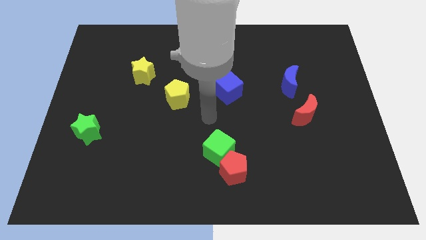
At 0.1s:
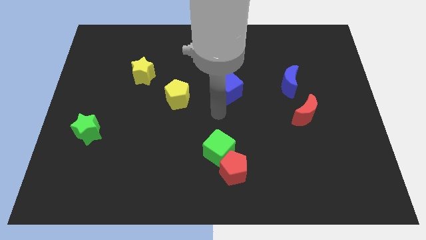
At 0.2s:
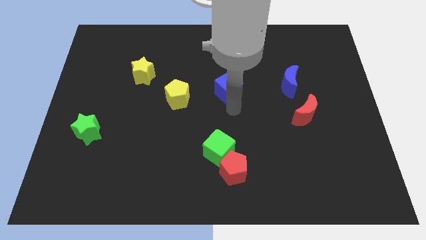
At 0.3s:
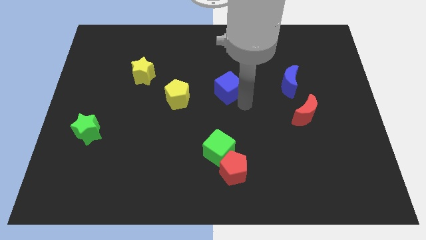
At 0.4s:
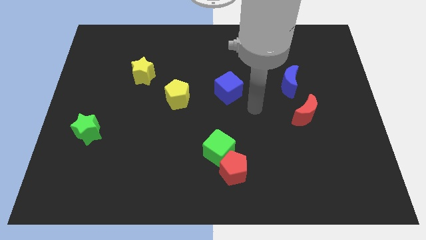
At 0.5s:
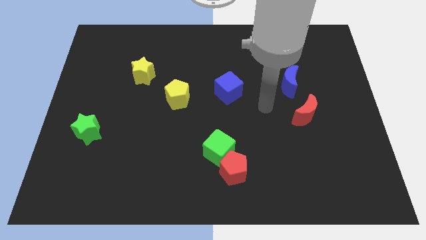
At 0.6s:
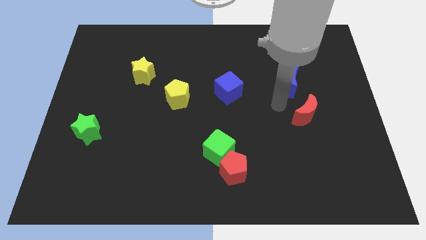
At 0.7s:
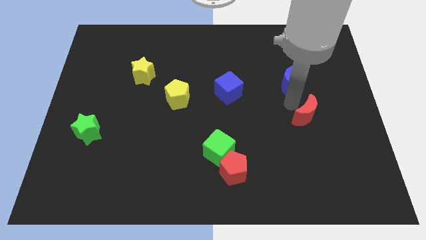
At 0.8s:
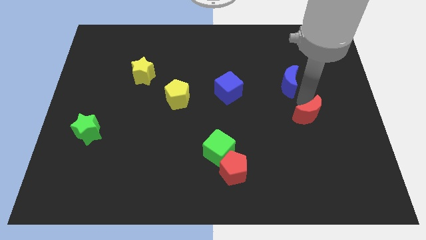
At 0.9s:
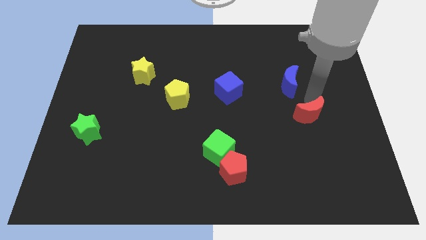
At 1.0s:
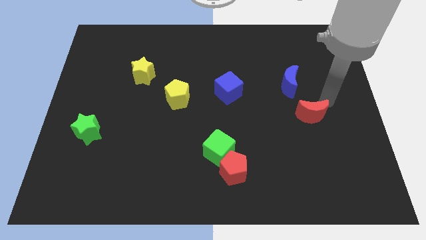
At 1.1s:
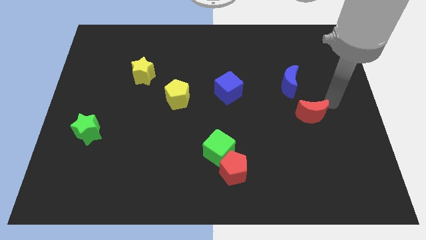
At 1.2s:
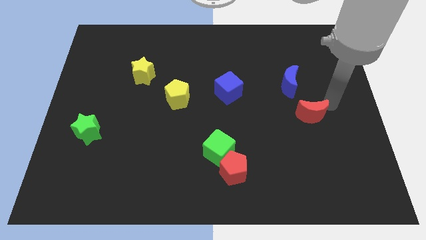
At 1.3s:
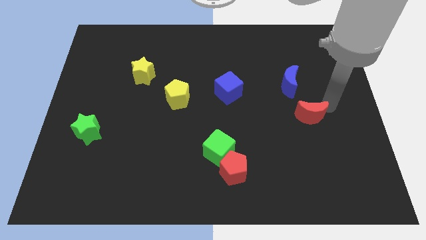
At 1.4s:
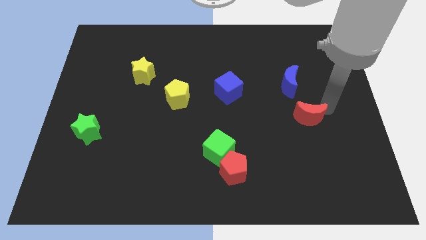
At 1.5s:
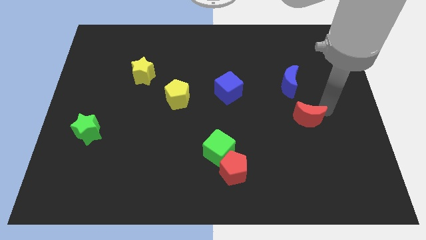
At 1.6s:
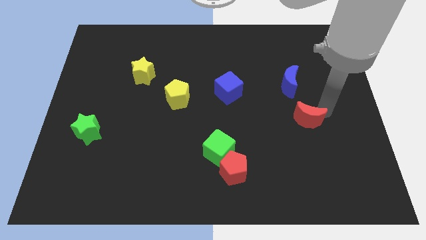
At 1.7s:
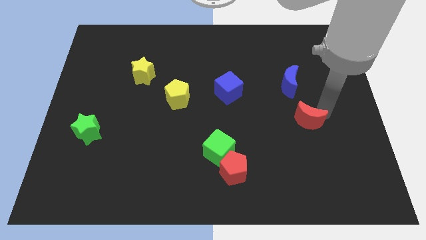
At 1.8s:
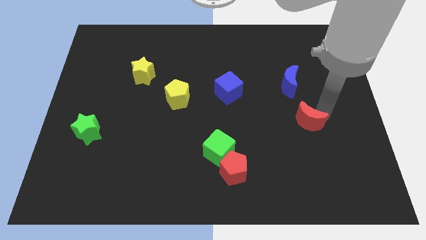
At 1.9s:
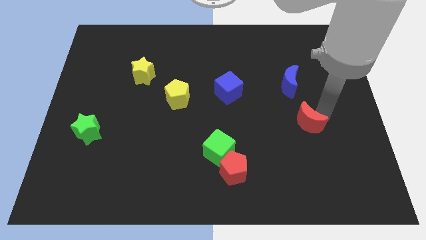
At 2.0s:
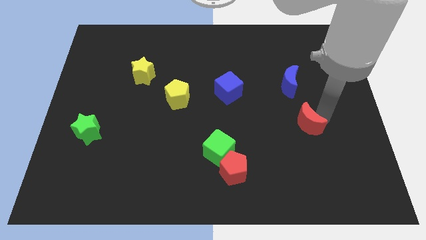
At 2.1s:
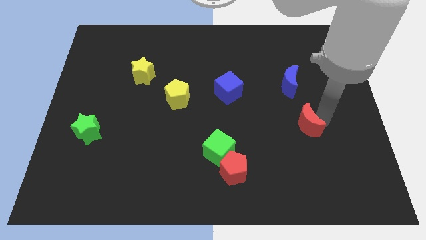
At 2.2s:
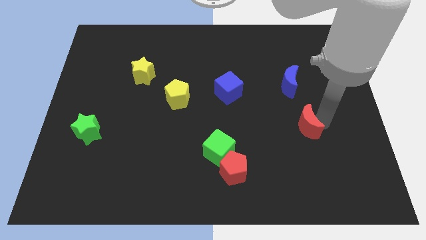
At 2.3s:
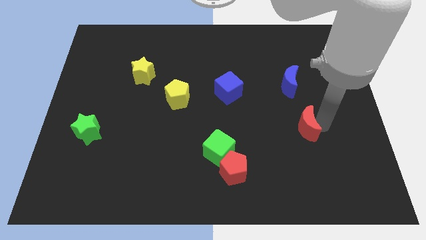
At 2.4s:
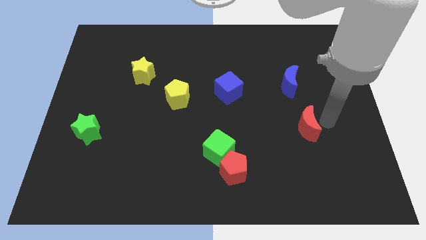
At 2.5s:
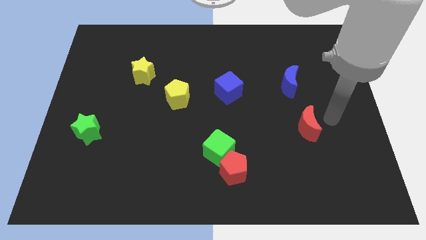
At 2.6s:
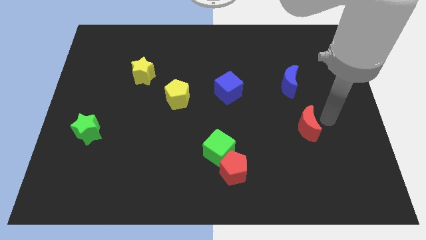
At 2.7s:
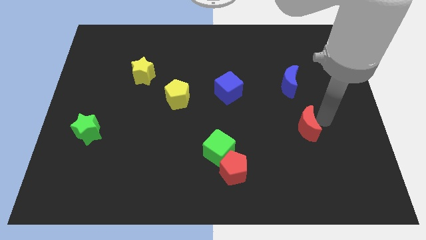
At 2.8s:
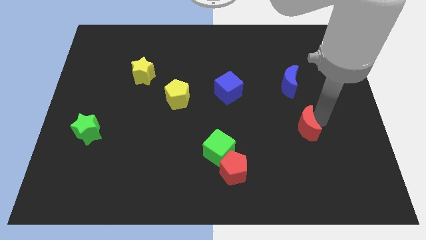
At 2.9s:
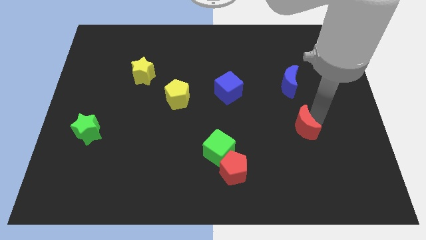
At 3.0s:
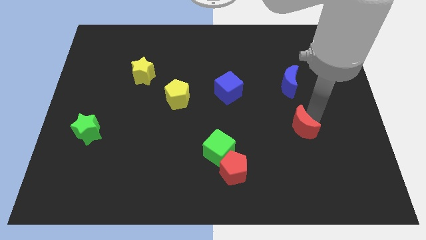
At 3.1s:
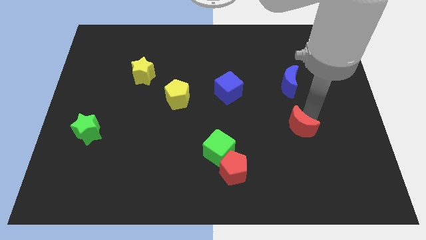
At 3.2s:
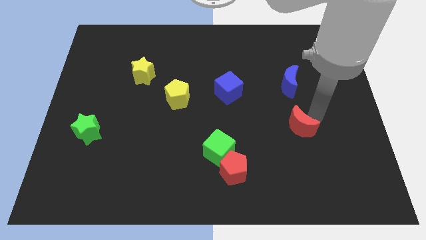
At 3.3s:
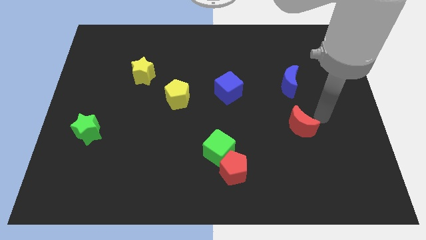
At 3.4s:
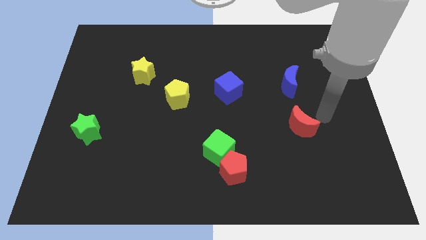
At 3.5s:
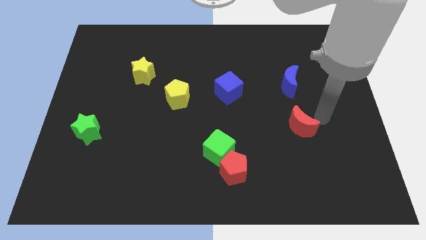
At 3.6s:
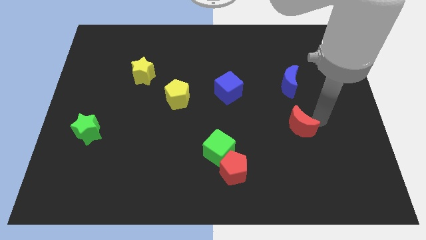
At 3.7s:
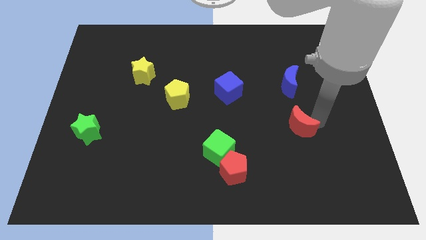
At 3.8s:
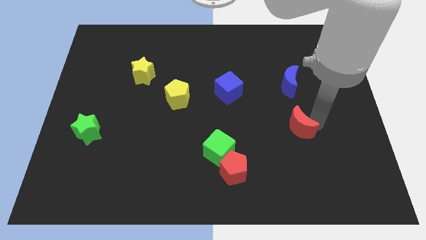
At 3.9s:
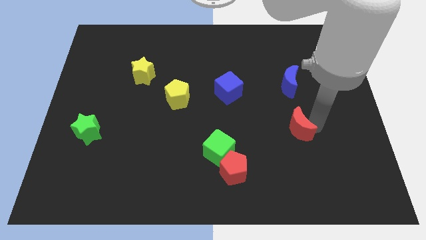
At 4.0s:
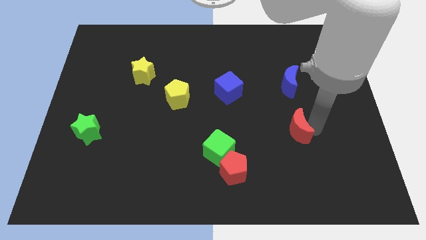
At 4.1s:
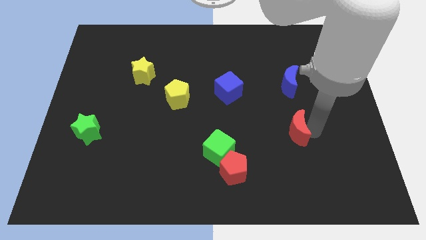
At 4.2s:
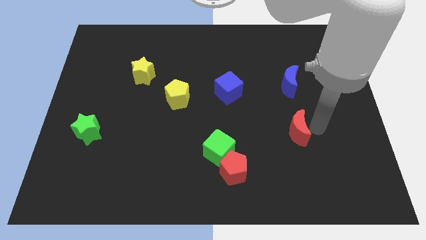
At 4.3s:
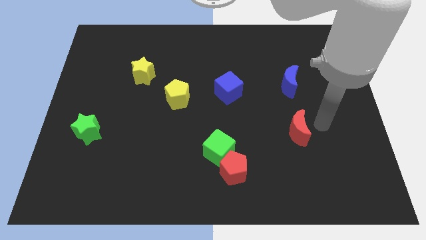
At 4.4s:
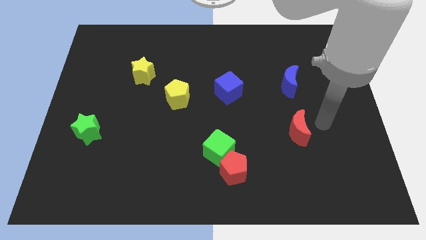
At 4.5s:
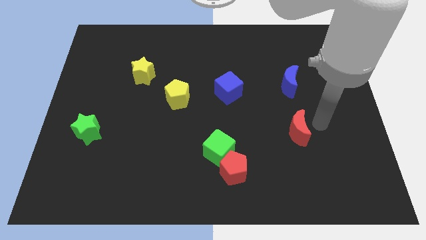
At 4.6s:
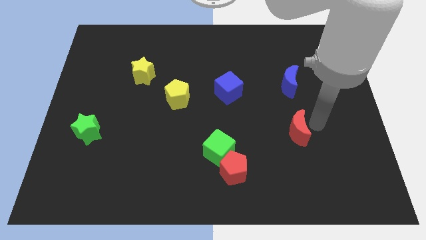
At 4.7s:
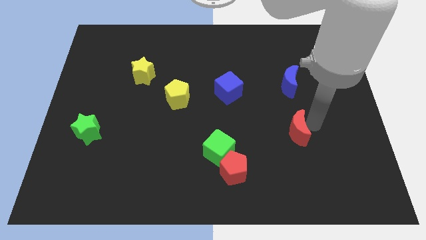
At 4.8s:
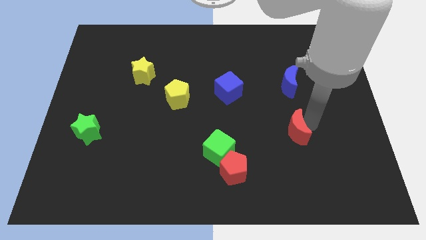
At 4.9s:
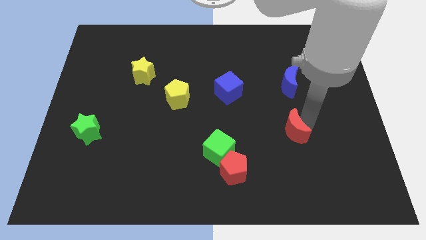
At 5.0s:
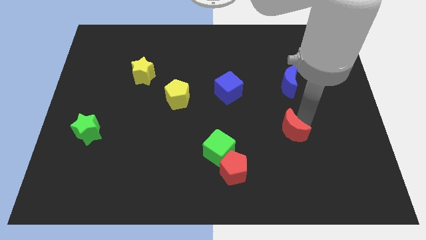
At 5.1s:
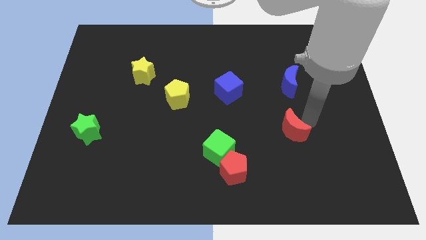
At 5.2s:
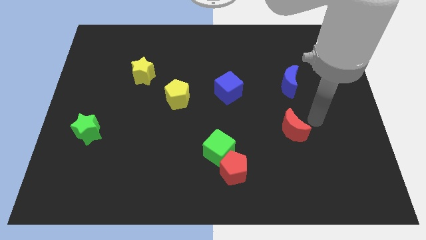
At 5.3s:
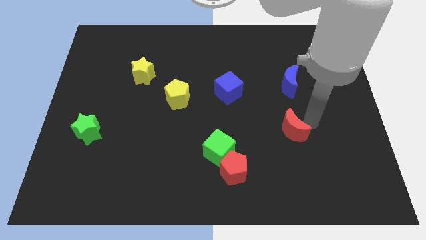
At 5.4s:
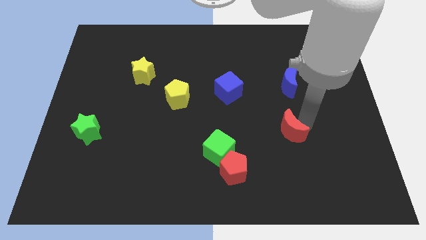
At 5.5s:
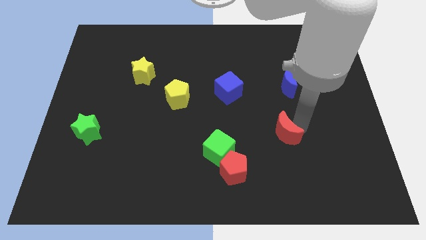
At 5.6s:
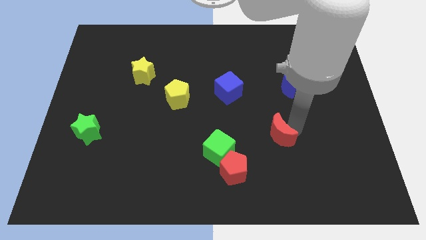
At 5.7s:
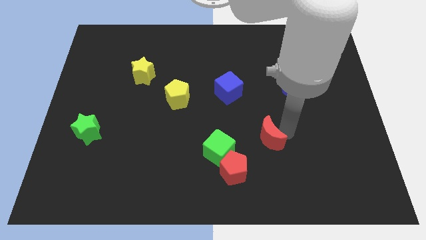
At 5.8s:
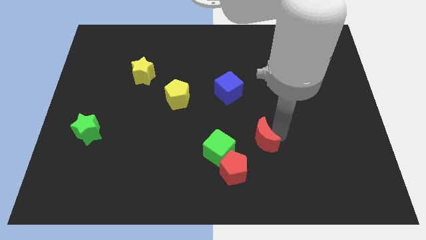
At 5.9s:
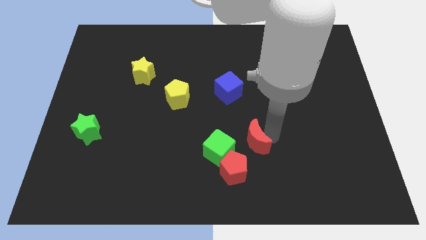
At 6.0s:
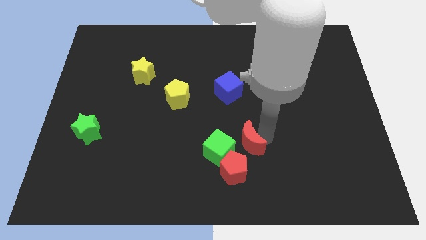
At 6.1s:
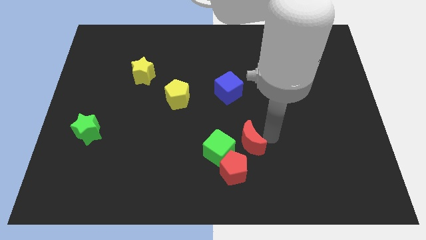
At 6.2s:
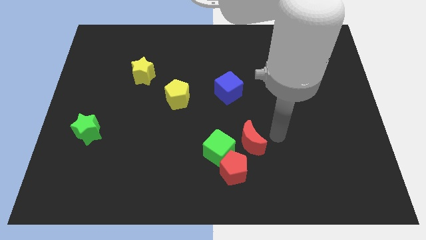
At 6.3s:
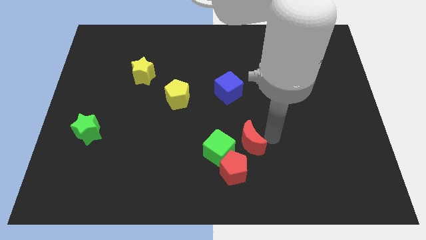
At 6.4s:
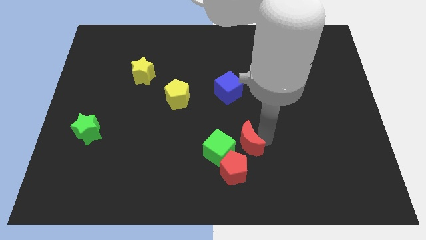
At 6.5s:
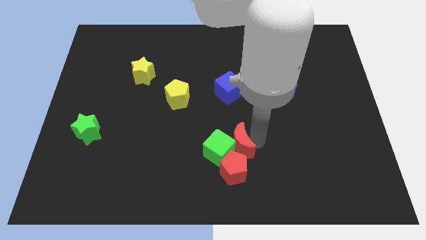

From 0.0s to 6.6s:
put the red moon towards the green cube

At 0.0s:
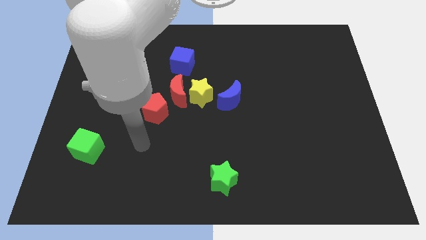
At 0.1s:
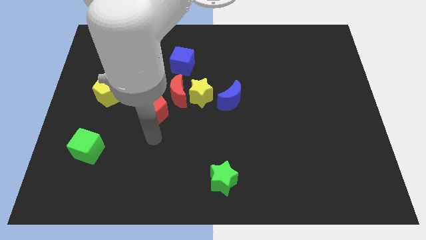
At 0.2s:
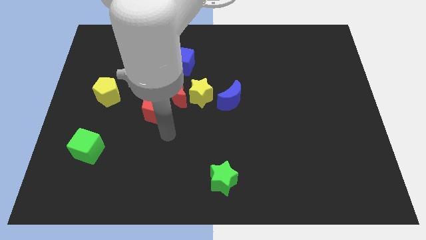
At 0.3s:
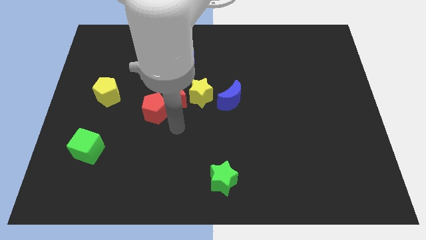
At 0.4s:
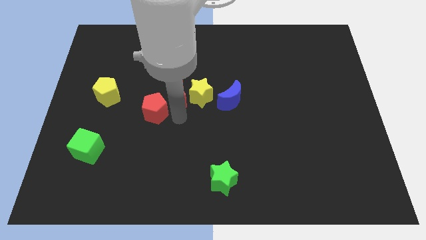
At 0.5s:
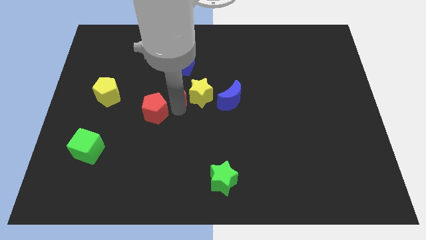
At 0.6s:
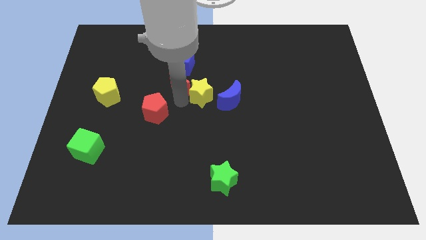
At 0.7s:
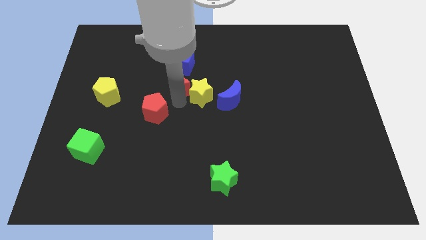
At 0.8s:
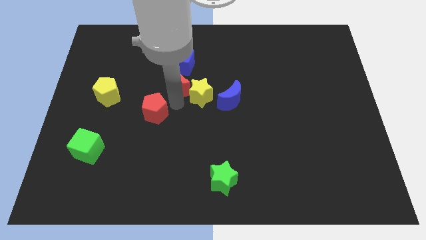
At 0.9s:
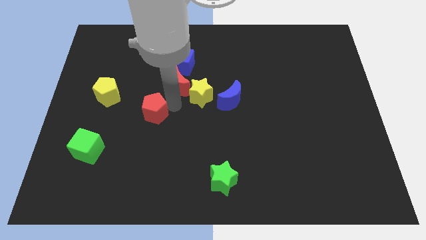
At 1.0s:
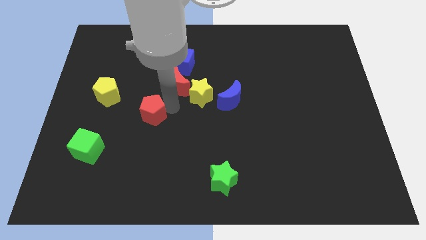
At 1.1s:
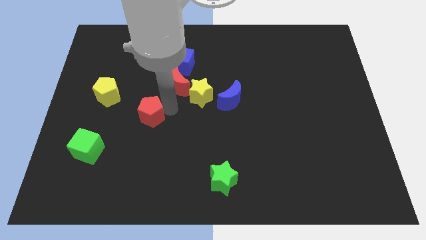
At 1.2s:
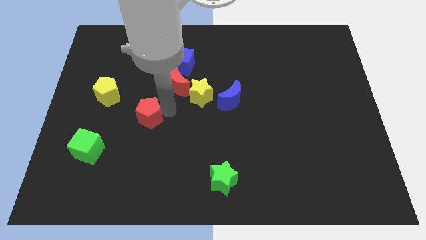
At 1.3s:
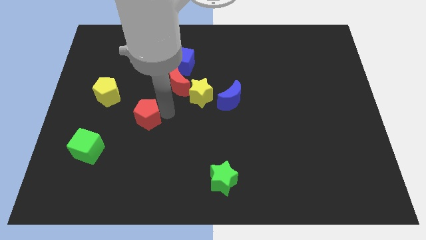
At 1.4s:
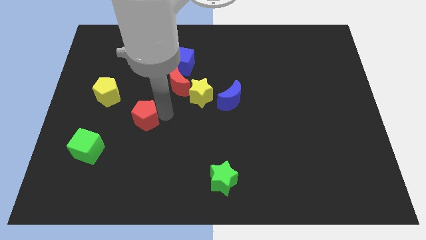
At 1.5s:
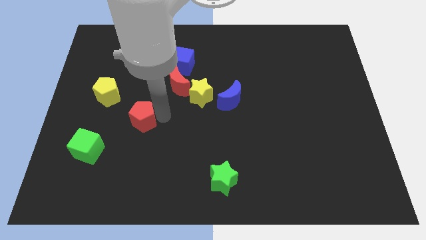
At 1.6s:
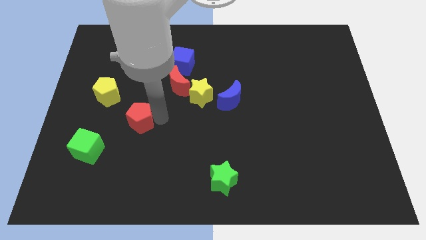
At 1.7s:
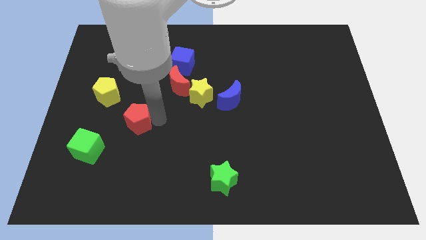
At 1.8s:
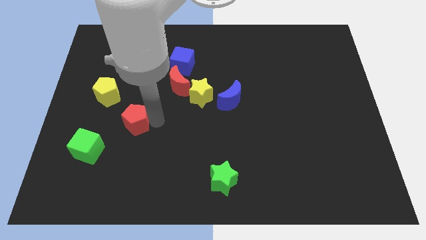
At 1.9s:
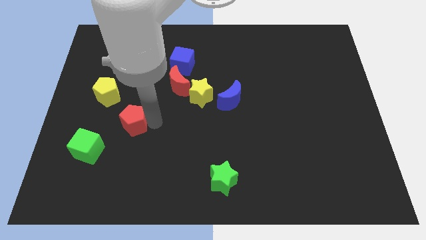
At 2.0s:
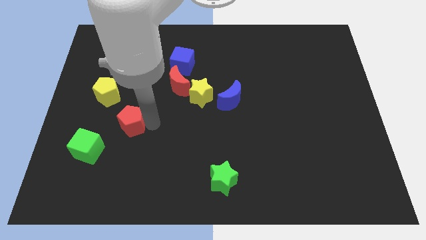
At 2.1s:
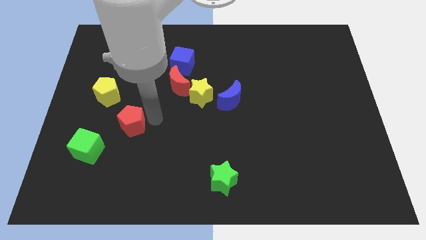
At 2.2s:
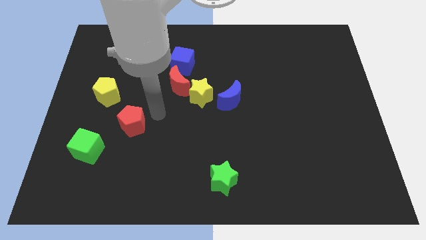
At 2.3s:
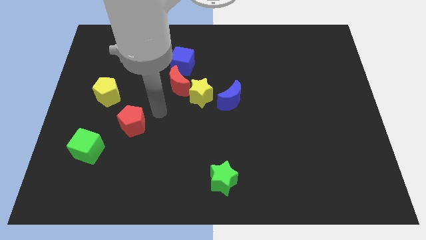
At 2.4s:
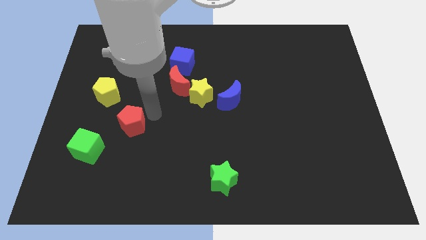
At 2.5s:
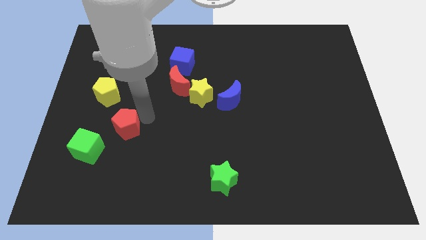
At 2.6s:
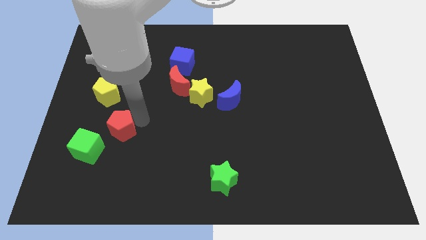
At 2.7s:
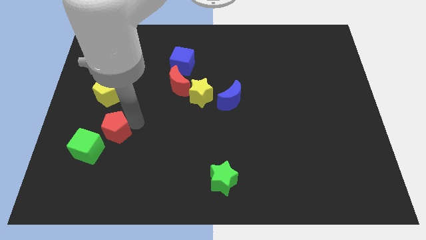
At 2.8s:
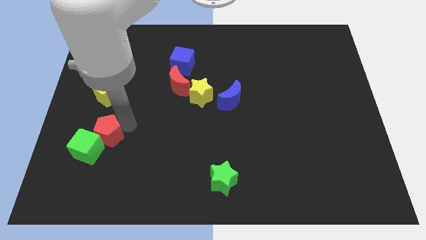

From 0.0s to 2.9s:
push the red pentagon towards the green cube
